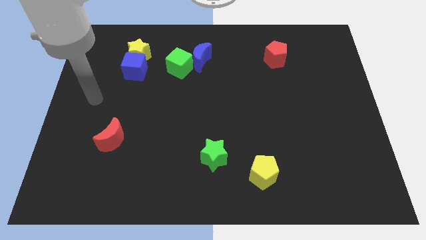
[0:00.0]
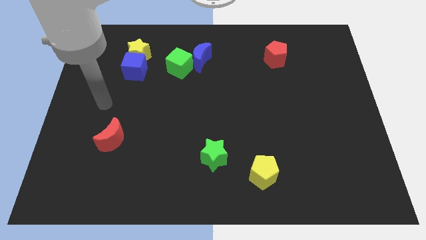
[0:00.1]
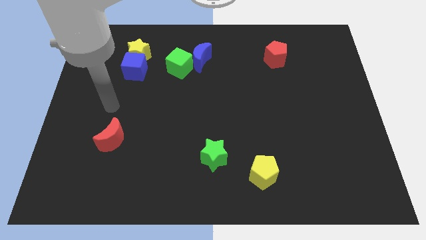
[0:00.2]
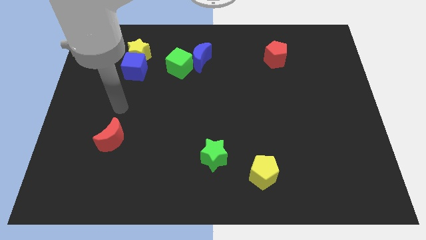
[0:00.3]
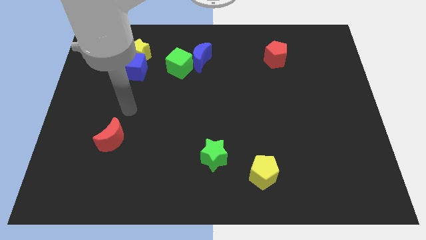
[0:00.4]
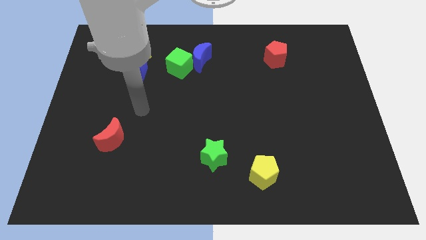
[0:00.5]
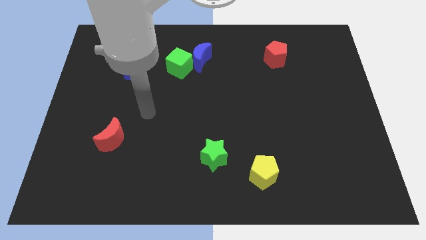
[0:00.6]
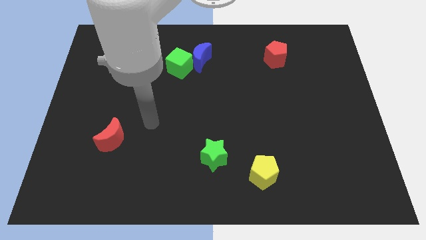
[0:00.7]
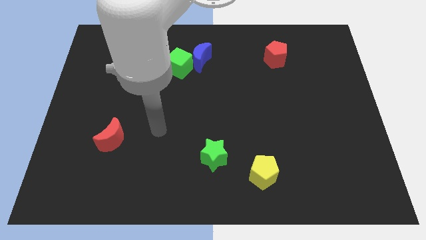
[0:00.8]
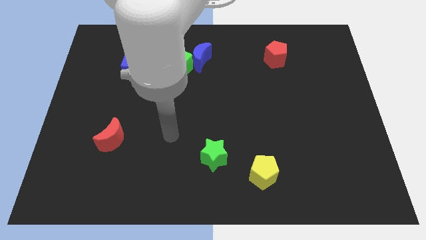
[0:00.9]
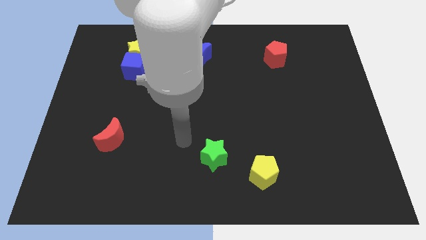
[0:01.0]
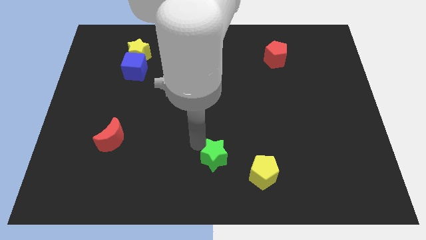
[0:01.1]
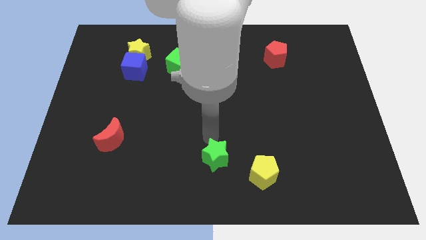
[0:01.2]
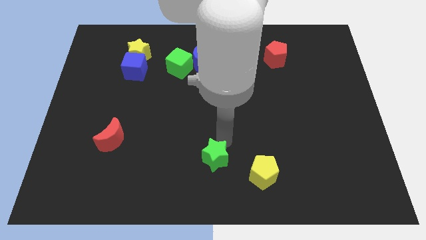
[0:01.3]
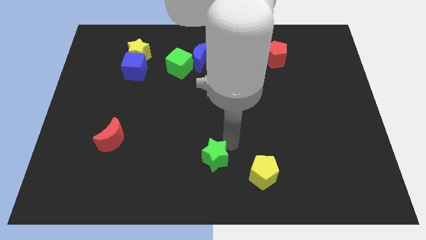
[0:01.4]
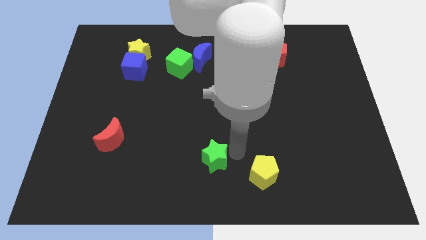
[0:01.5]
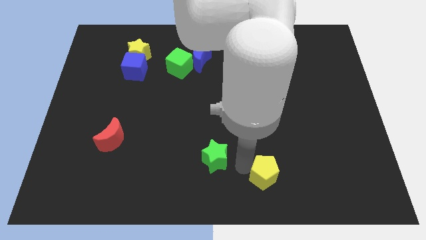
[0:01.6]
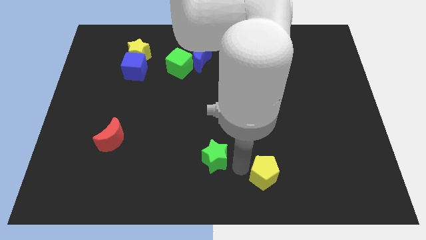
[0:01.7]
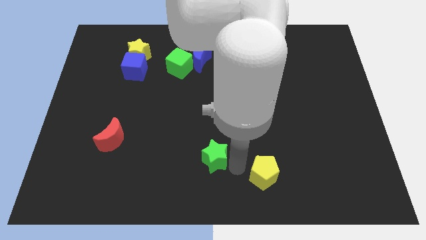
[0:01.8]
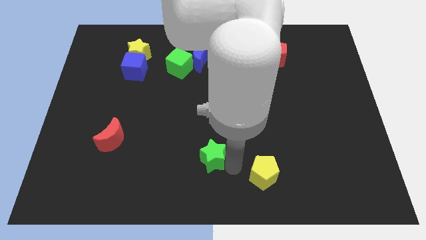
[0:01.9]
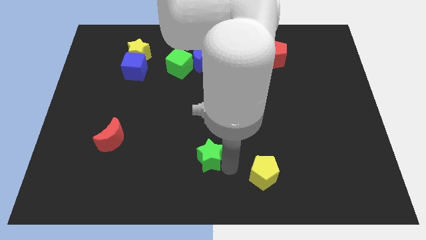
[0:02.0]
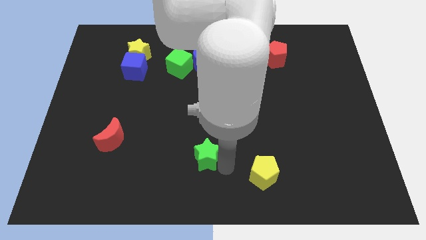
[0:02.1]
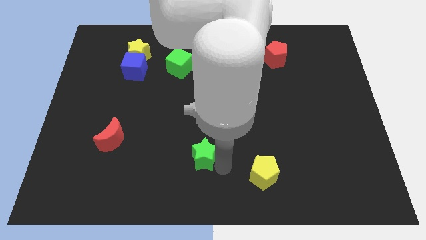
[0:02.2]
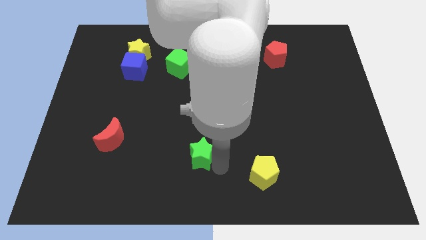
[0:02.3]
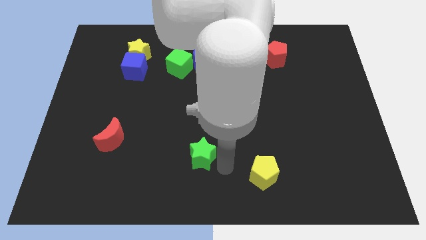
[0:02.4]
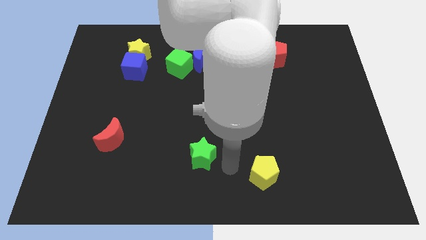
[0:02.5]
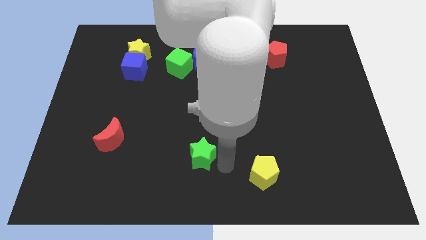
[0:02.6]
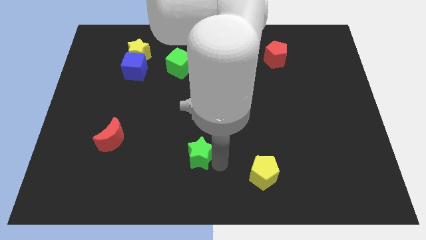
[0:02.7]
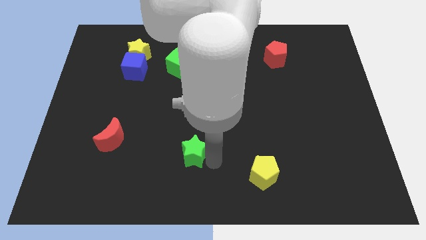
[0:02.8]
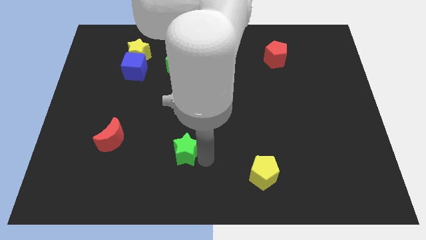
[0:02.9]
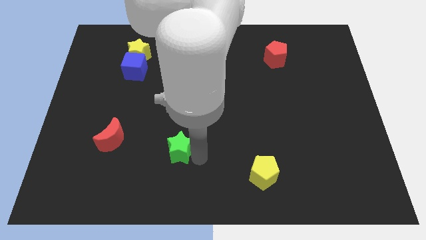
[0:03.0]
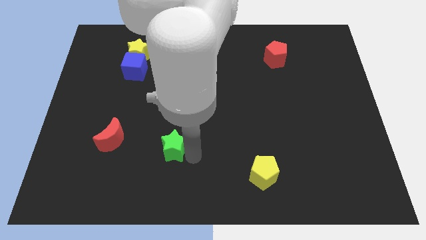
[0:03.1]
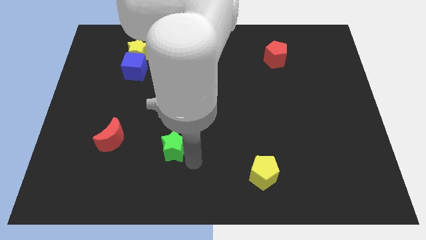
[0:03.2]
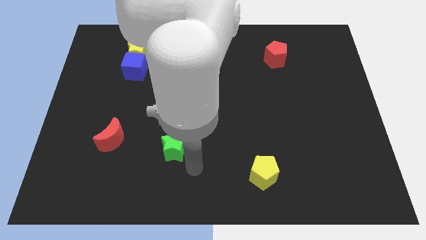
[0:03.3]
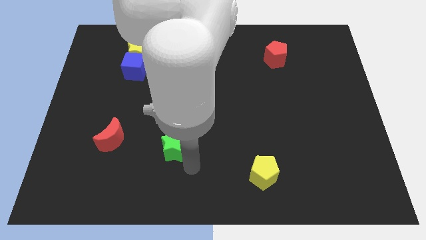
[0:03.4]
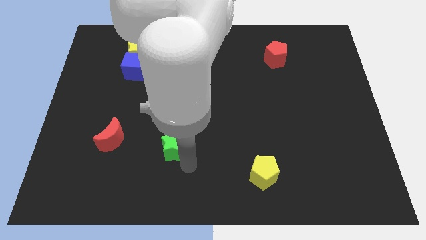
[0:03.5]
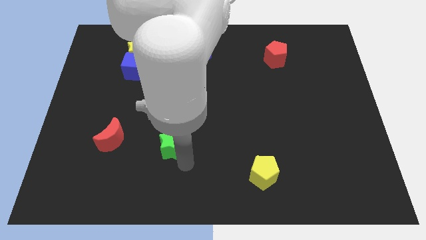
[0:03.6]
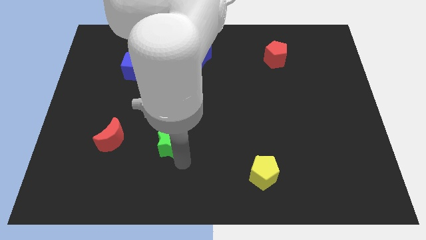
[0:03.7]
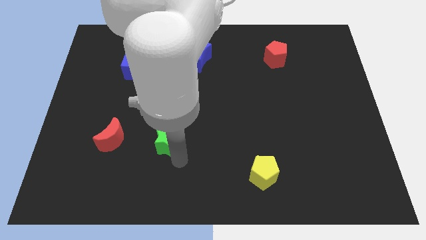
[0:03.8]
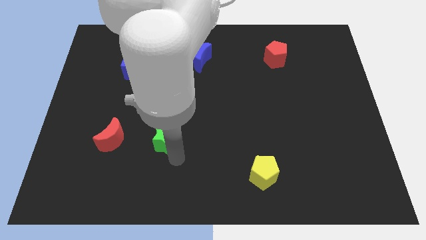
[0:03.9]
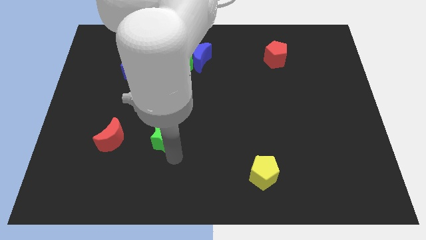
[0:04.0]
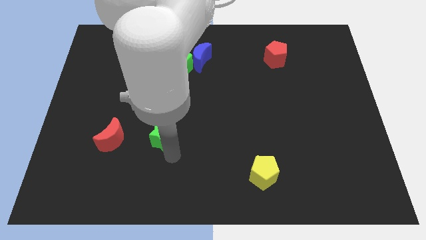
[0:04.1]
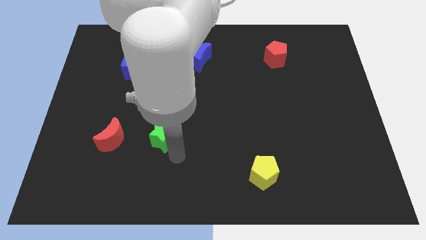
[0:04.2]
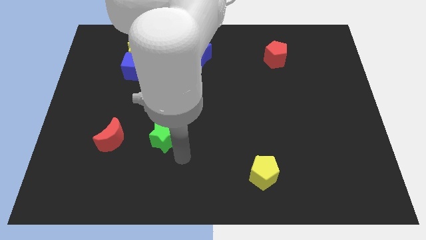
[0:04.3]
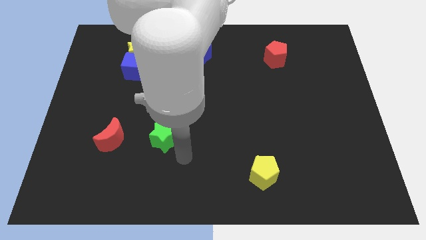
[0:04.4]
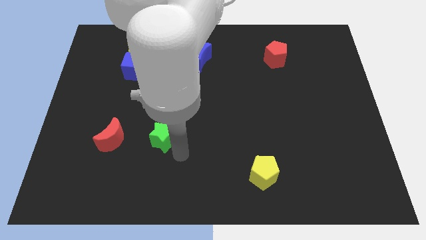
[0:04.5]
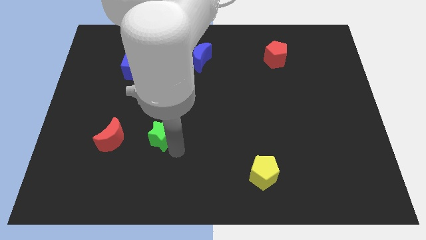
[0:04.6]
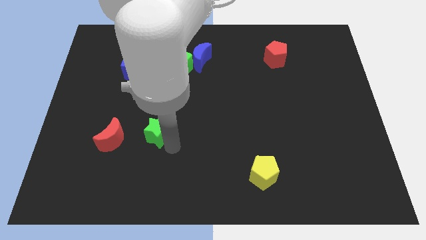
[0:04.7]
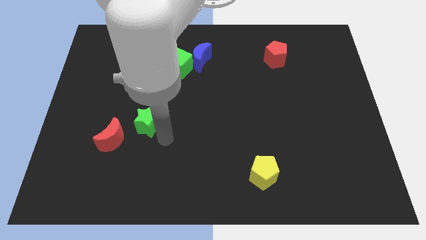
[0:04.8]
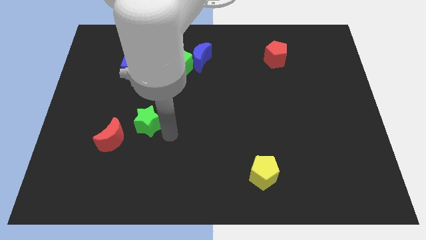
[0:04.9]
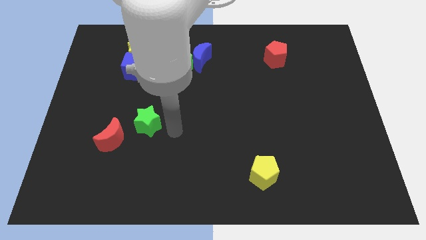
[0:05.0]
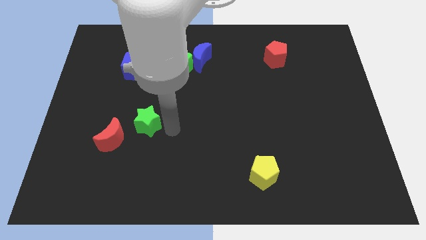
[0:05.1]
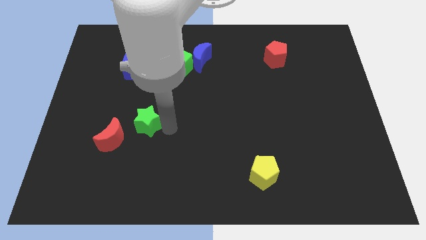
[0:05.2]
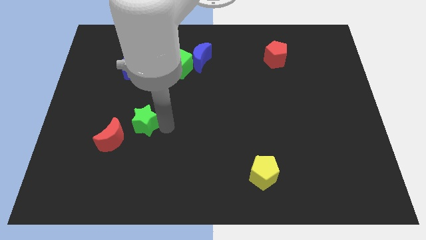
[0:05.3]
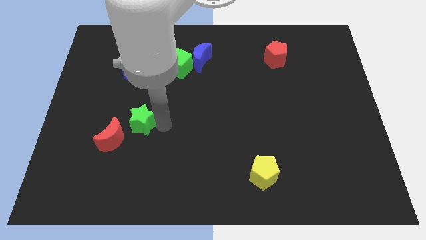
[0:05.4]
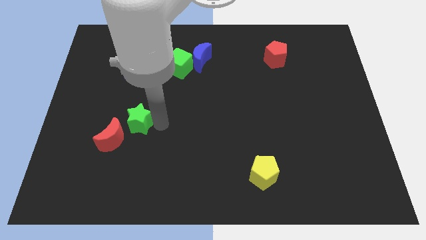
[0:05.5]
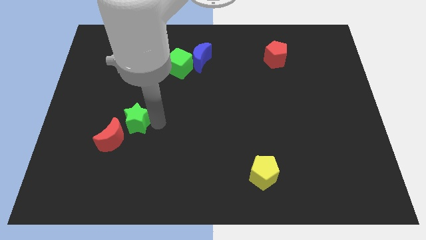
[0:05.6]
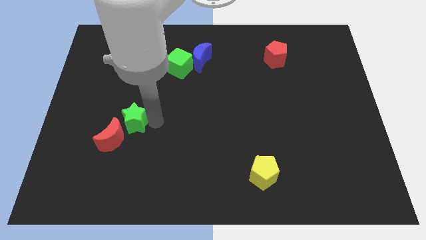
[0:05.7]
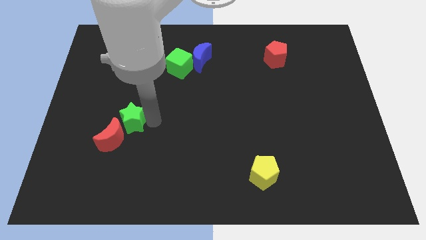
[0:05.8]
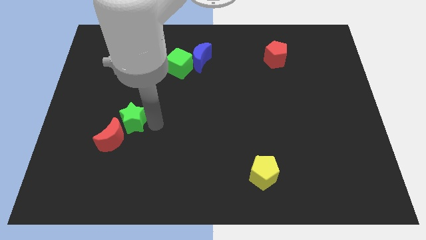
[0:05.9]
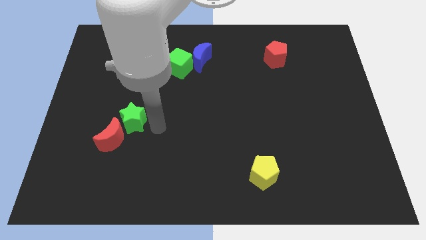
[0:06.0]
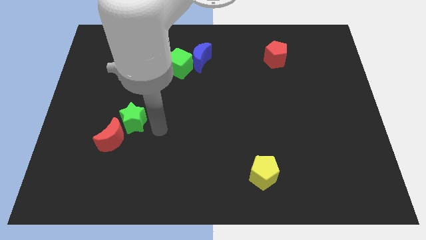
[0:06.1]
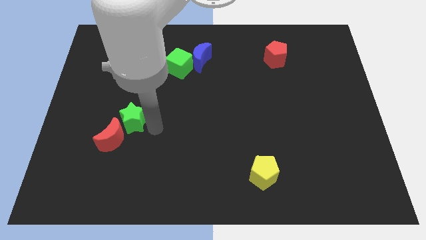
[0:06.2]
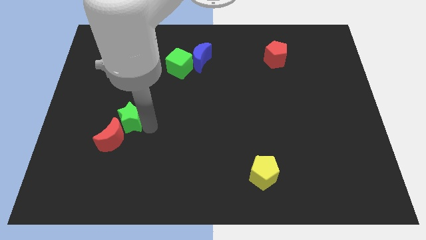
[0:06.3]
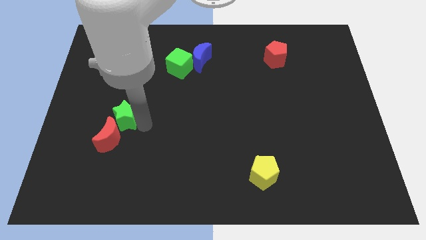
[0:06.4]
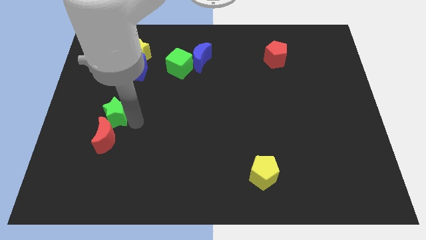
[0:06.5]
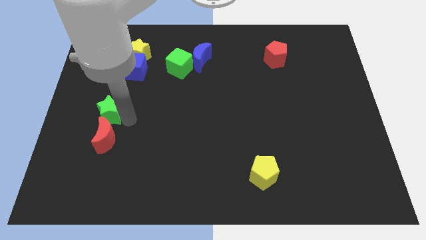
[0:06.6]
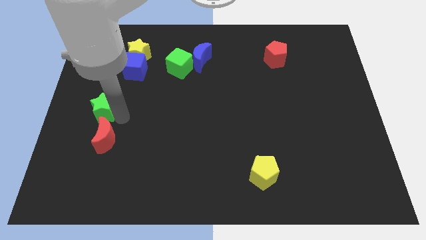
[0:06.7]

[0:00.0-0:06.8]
slide the green star to the left side of the board
